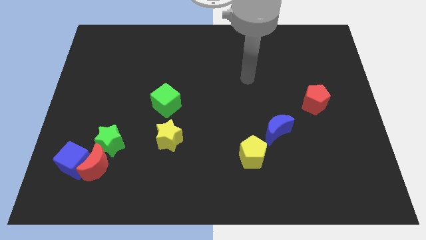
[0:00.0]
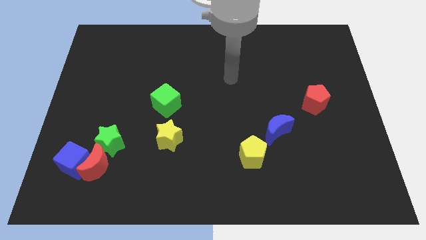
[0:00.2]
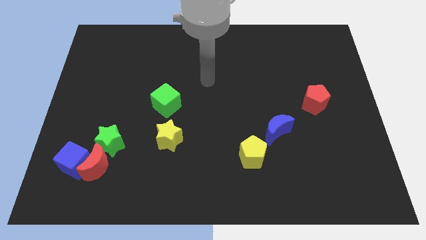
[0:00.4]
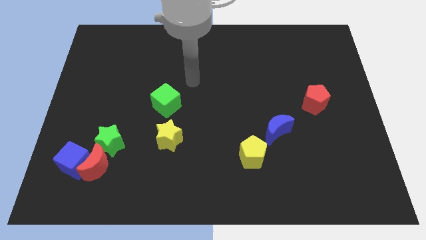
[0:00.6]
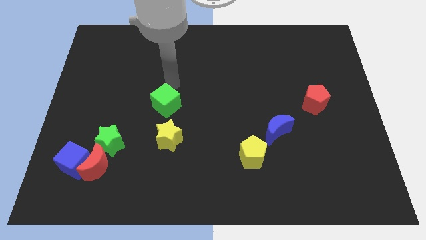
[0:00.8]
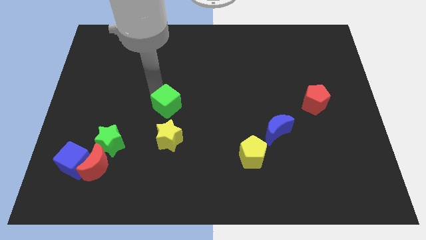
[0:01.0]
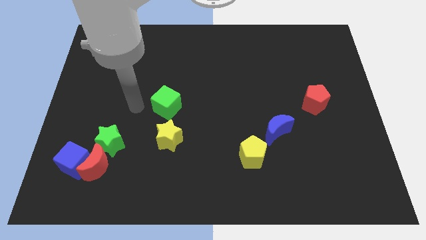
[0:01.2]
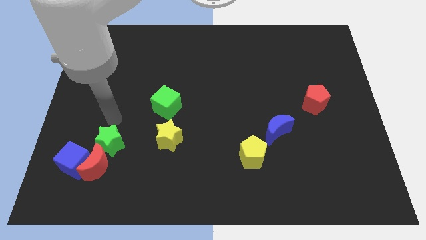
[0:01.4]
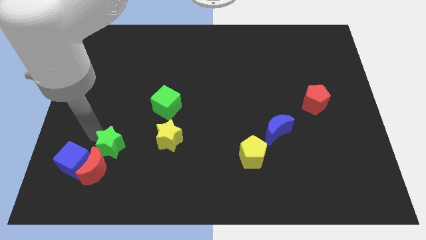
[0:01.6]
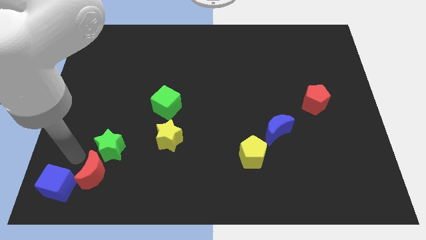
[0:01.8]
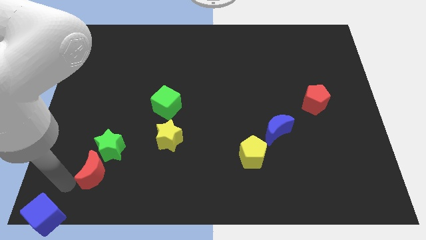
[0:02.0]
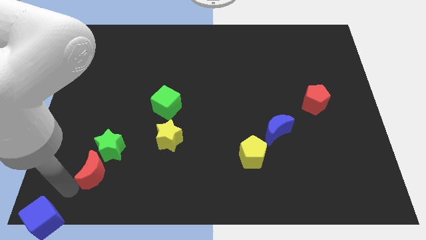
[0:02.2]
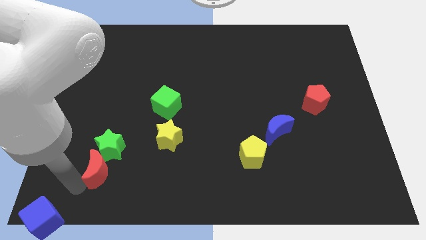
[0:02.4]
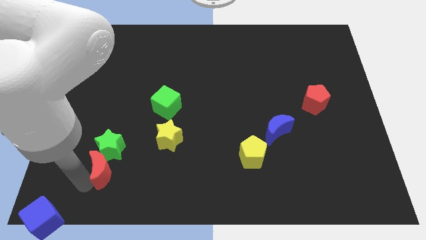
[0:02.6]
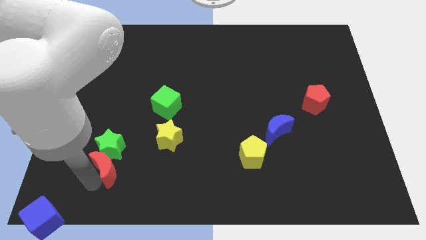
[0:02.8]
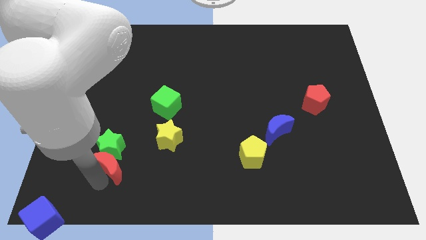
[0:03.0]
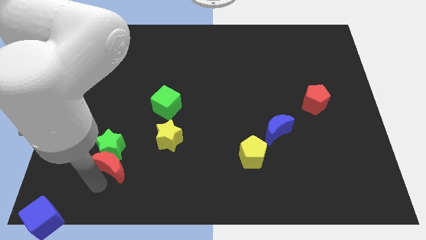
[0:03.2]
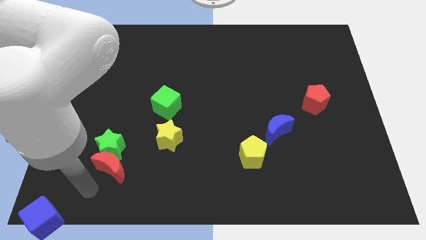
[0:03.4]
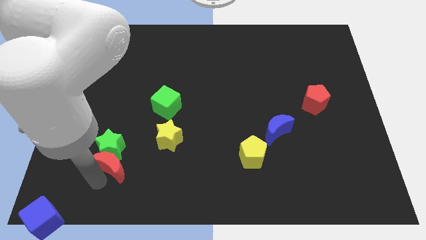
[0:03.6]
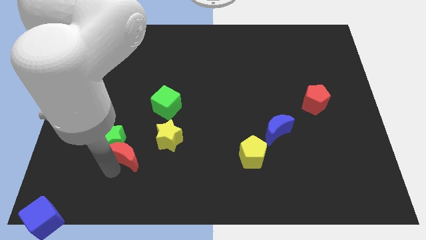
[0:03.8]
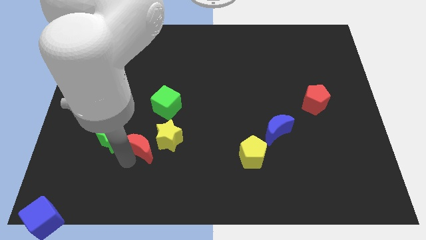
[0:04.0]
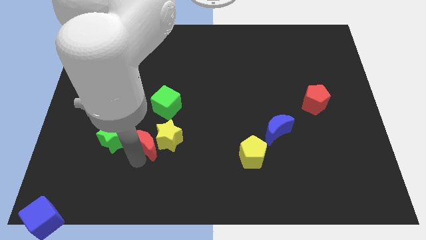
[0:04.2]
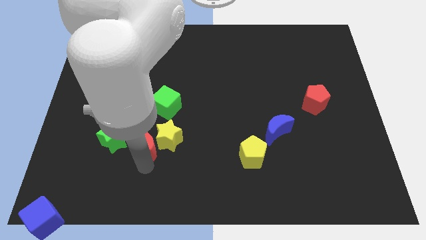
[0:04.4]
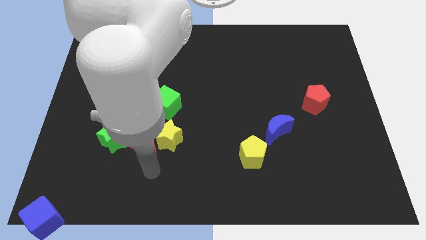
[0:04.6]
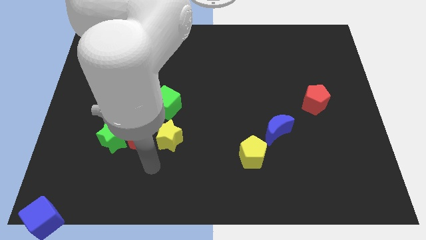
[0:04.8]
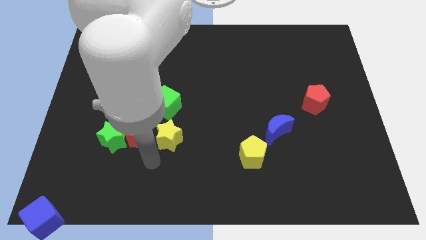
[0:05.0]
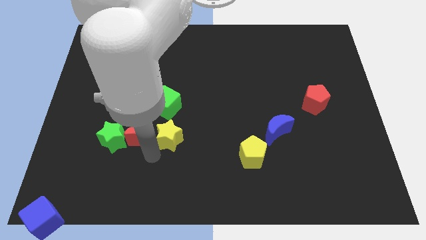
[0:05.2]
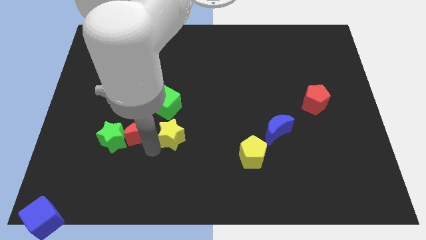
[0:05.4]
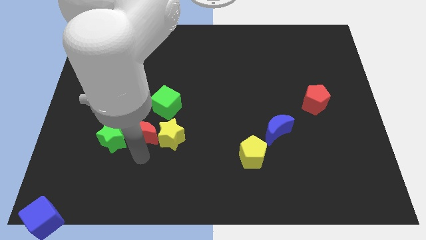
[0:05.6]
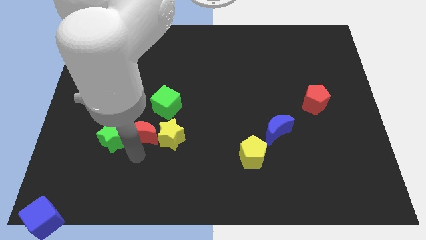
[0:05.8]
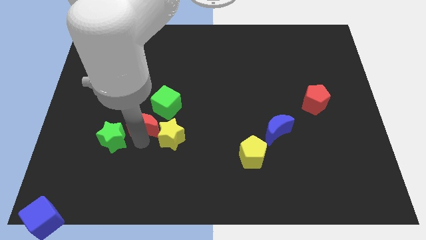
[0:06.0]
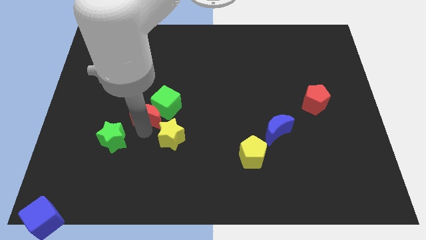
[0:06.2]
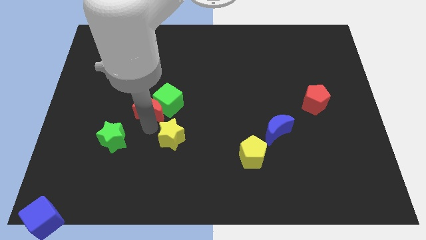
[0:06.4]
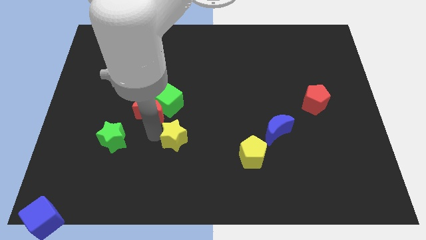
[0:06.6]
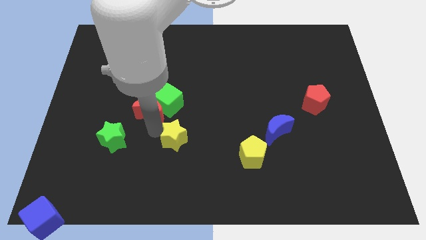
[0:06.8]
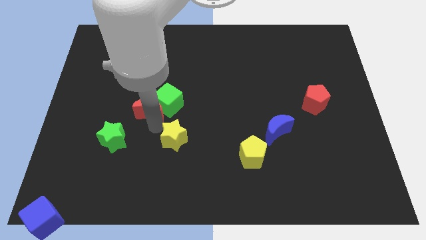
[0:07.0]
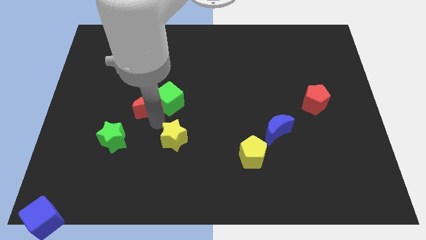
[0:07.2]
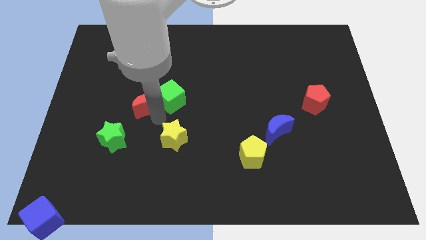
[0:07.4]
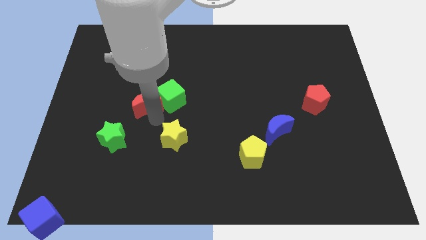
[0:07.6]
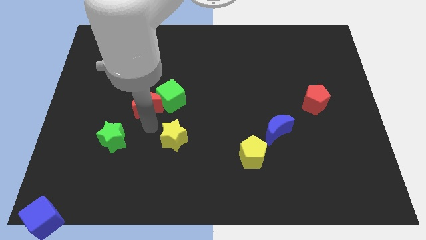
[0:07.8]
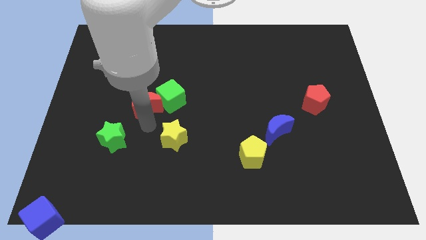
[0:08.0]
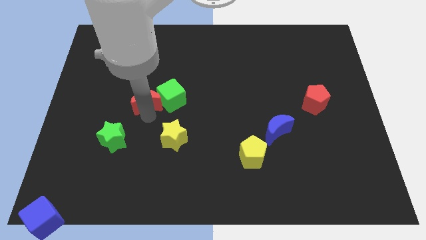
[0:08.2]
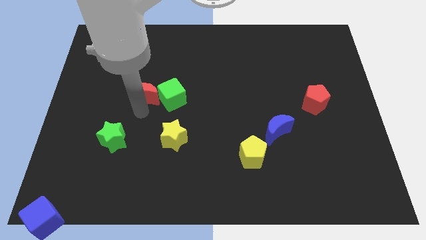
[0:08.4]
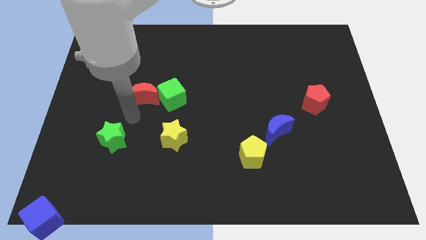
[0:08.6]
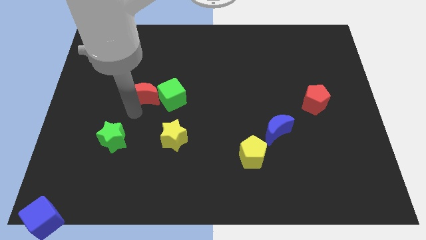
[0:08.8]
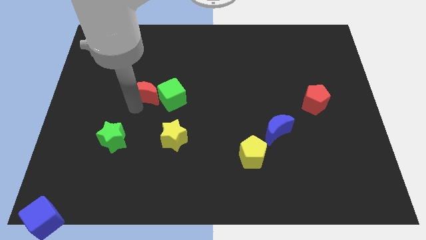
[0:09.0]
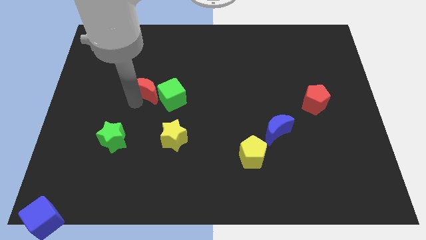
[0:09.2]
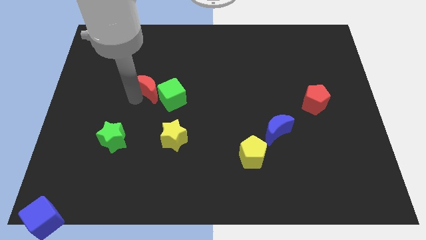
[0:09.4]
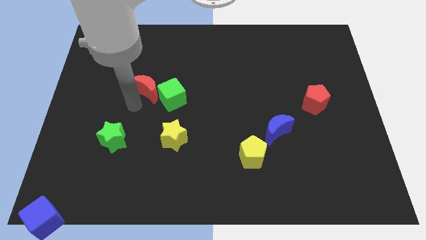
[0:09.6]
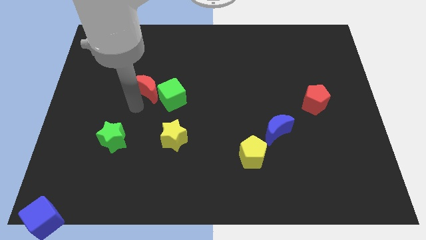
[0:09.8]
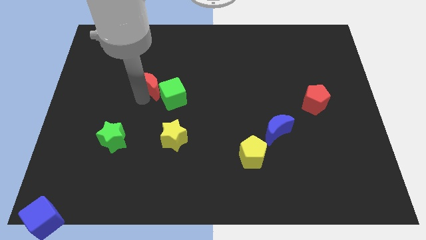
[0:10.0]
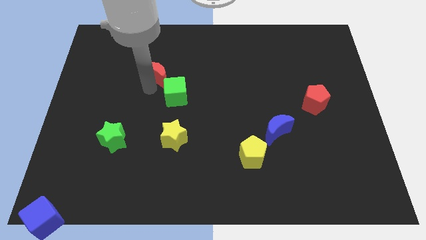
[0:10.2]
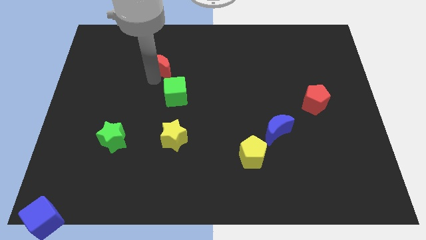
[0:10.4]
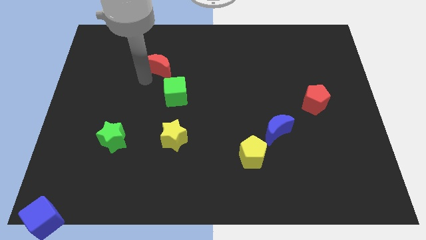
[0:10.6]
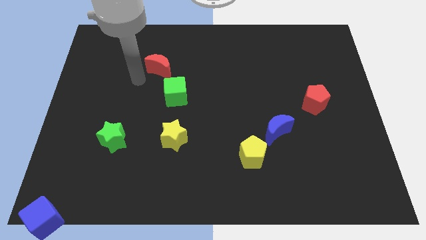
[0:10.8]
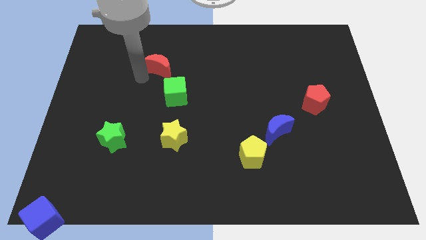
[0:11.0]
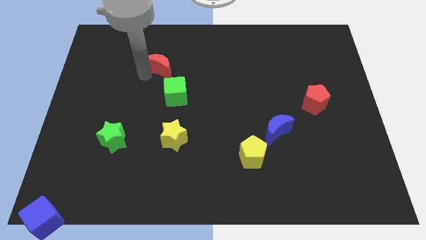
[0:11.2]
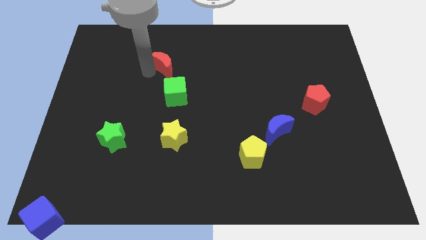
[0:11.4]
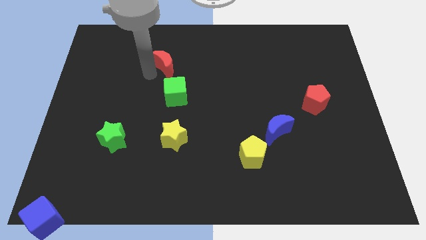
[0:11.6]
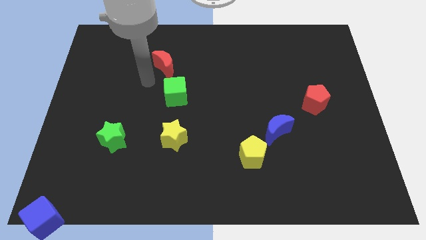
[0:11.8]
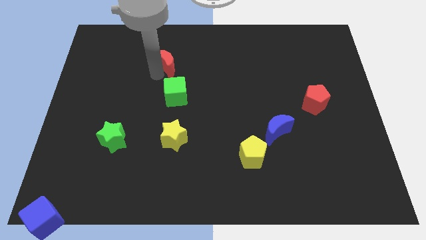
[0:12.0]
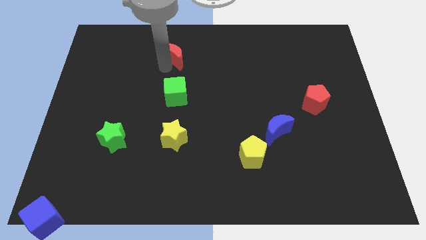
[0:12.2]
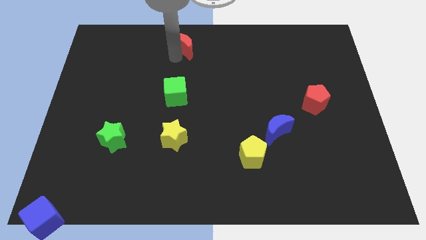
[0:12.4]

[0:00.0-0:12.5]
push the red moon to the top
